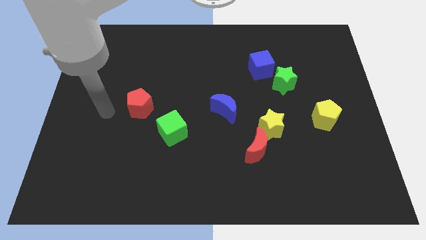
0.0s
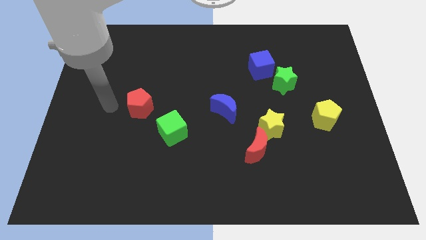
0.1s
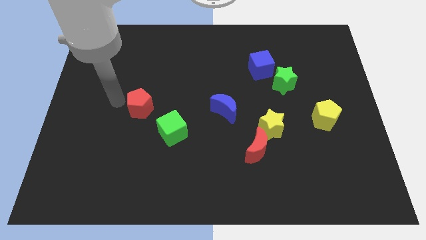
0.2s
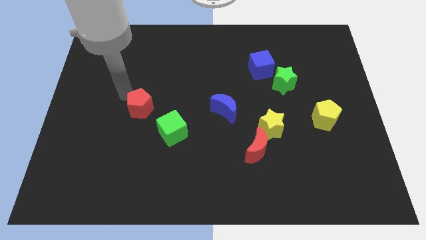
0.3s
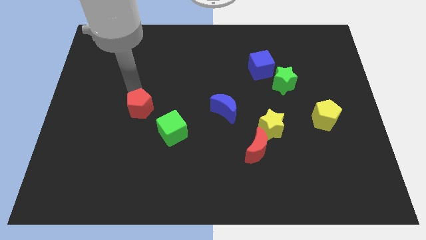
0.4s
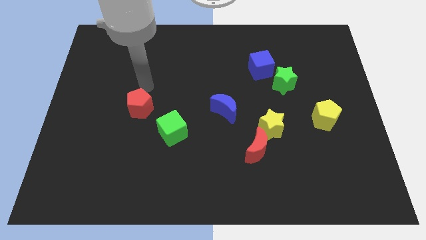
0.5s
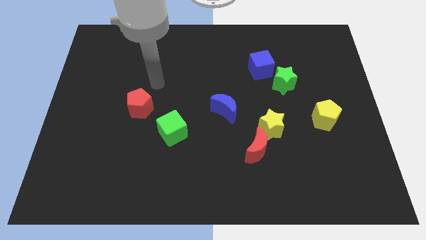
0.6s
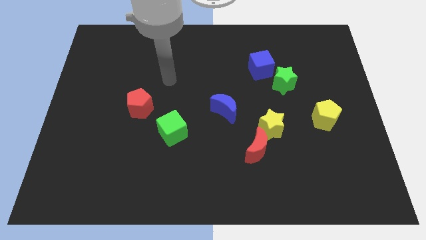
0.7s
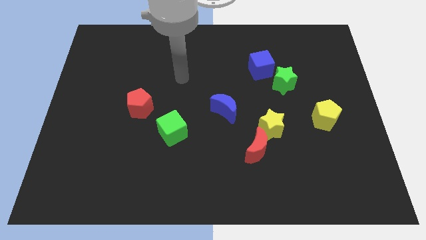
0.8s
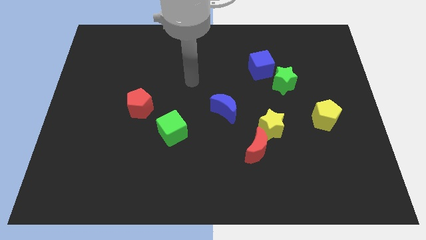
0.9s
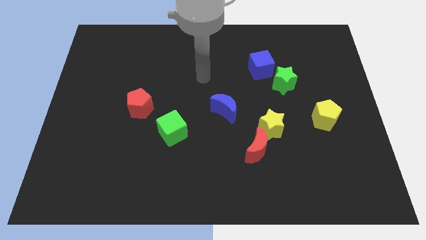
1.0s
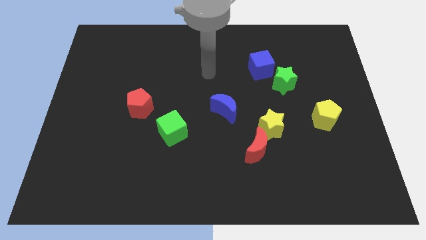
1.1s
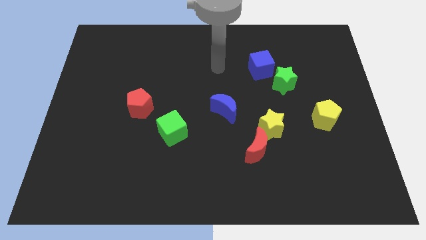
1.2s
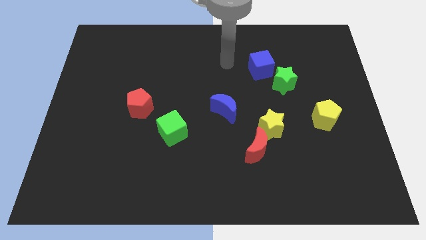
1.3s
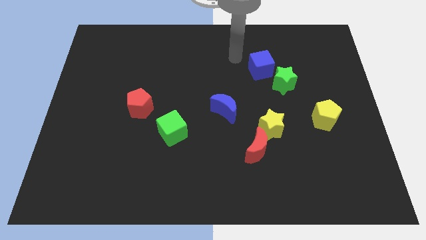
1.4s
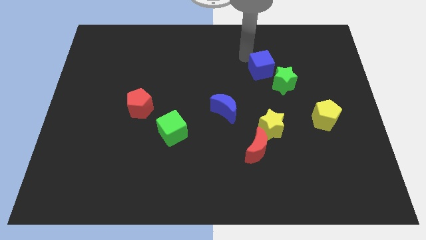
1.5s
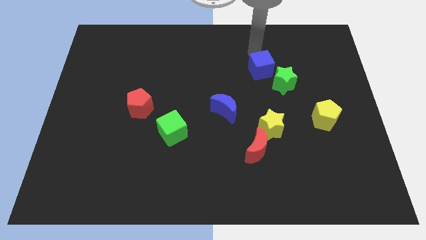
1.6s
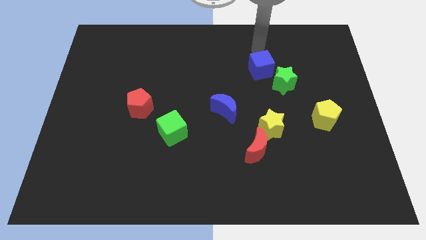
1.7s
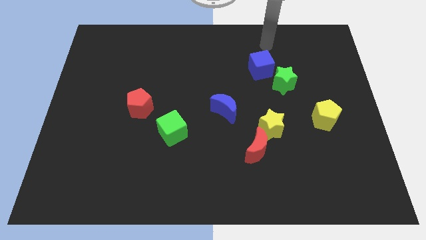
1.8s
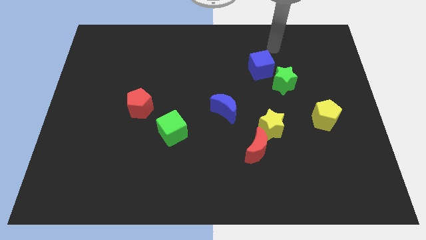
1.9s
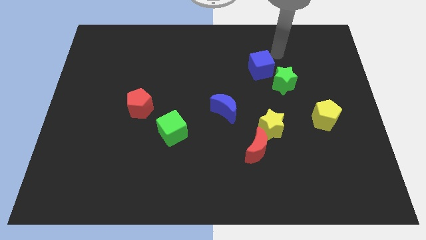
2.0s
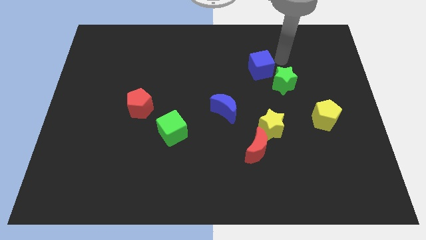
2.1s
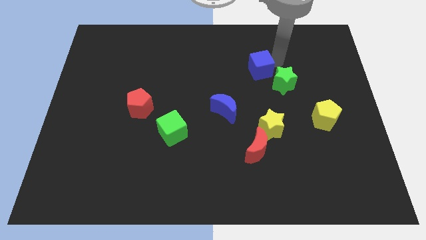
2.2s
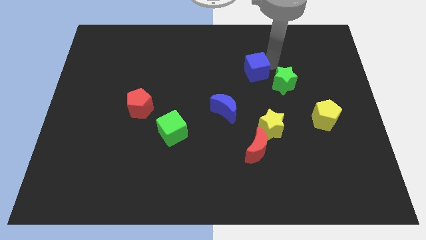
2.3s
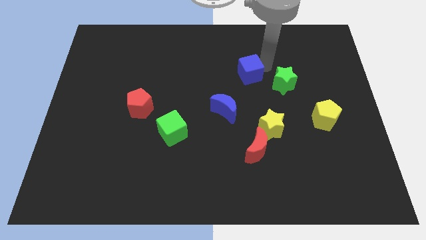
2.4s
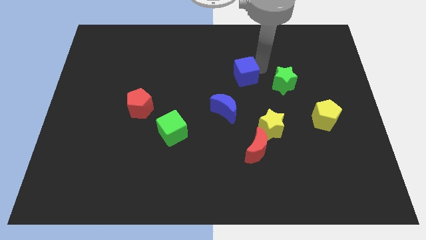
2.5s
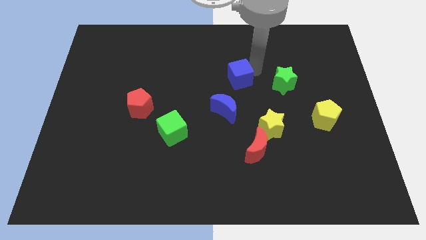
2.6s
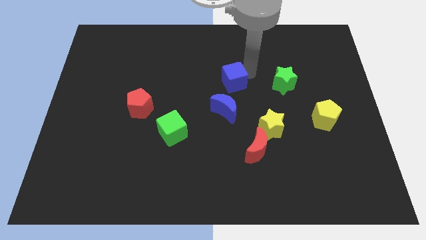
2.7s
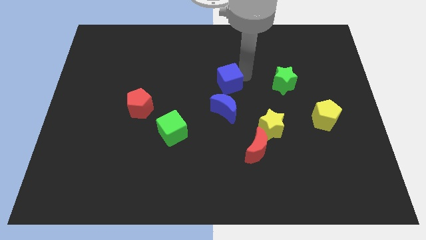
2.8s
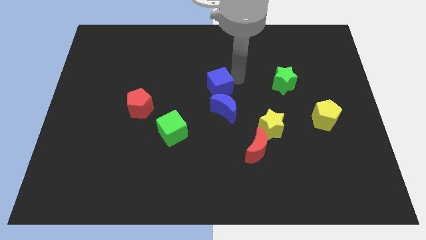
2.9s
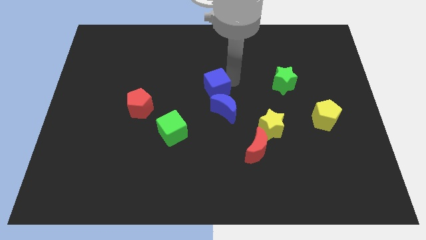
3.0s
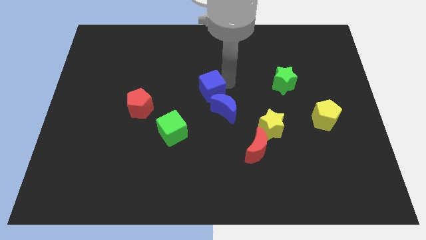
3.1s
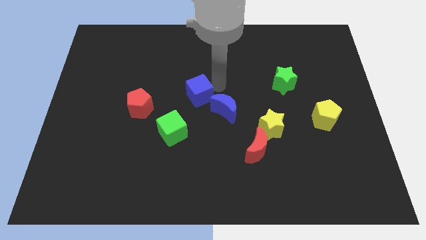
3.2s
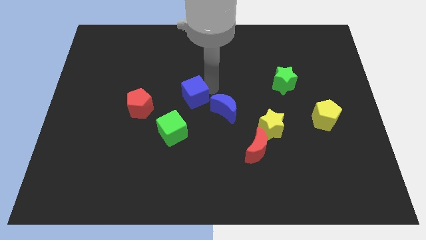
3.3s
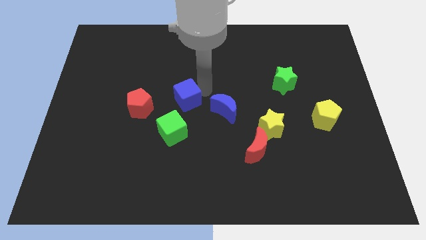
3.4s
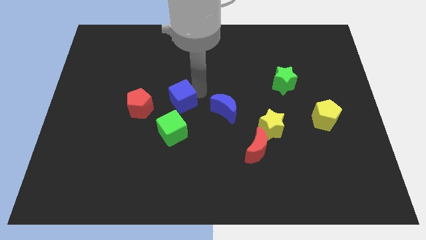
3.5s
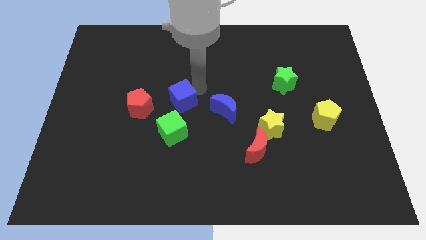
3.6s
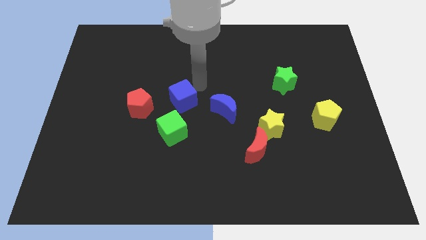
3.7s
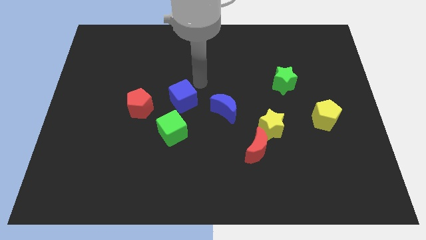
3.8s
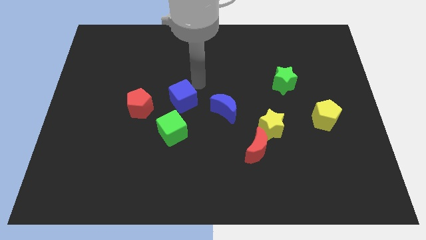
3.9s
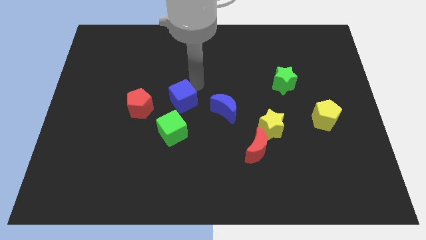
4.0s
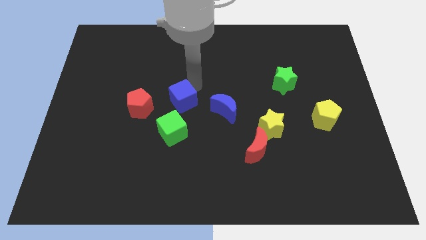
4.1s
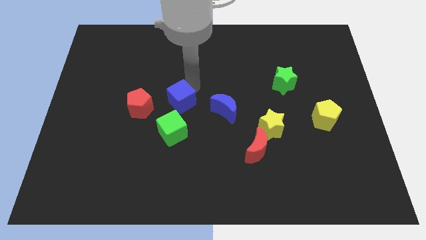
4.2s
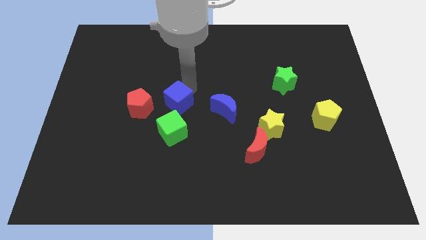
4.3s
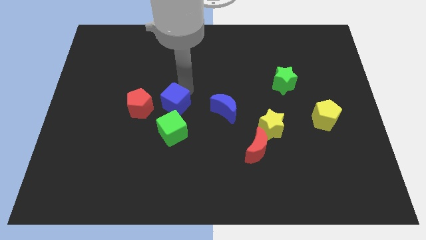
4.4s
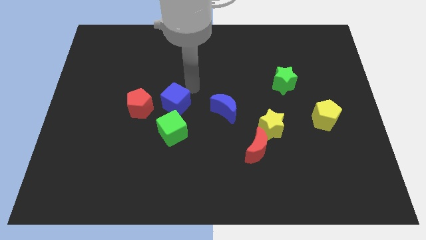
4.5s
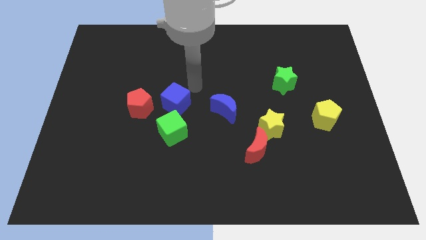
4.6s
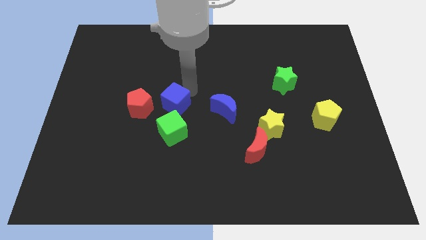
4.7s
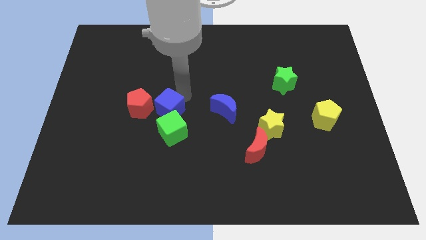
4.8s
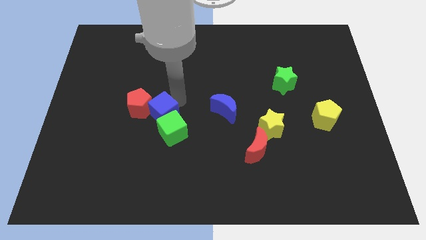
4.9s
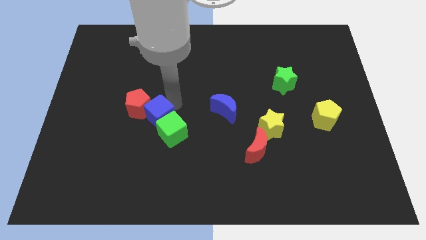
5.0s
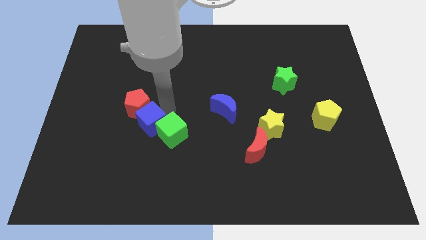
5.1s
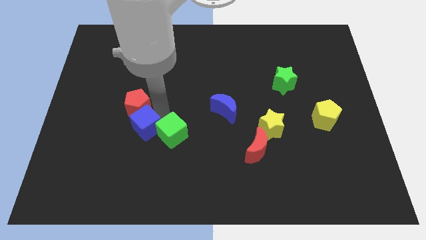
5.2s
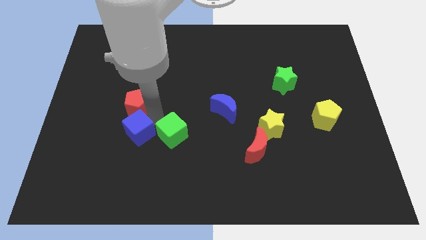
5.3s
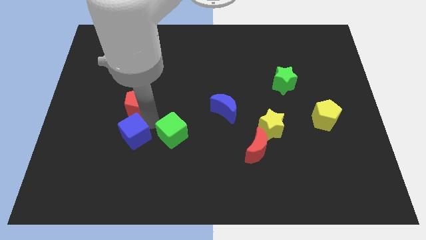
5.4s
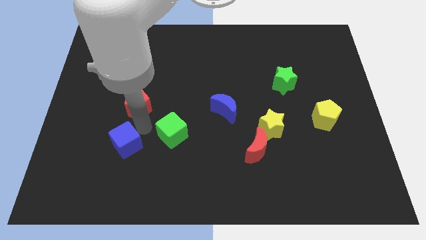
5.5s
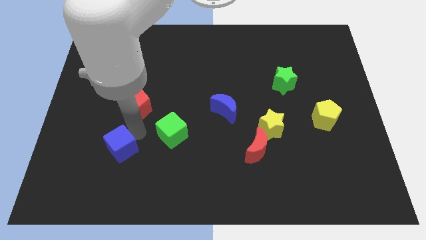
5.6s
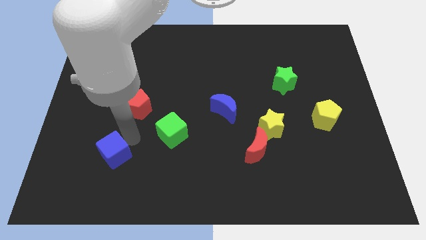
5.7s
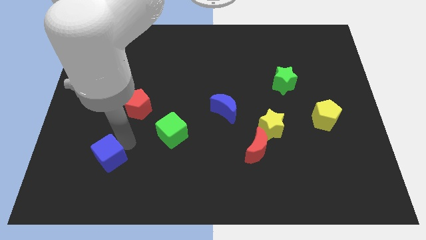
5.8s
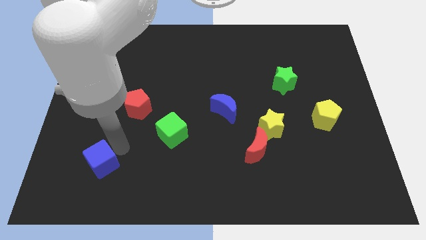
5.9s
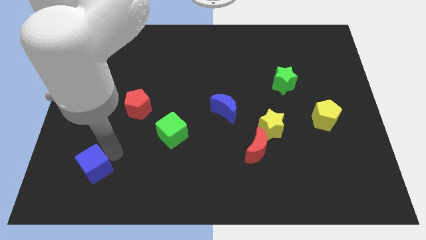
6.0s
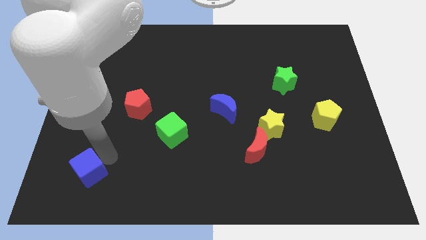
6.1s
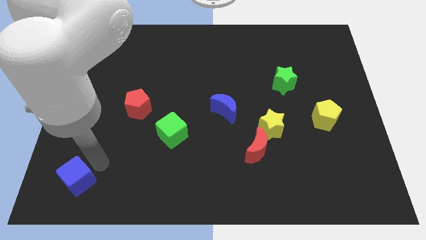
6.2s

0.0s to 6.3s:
slide the blue cube to the bottom left corner

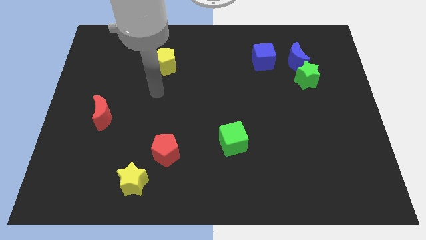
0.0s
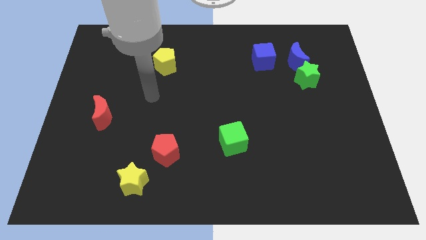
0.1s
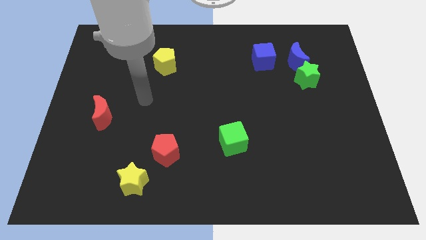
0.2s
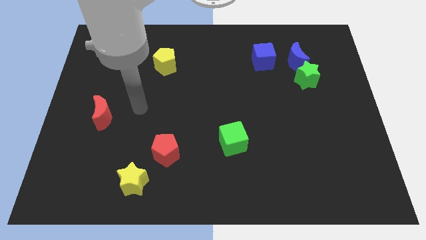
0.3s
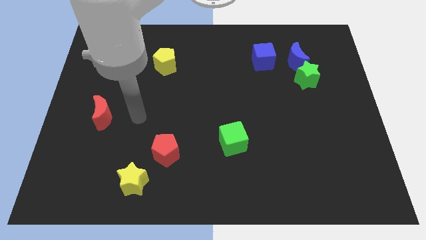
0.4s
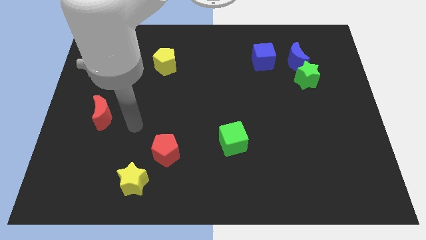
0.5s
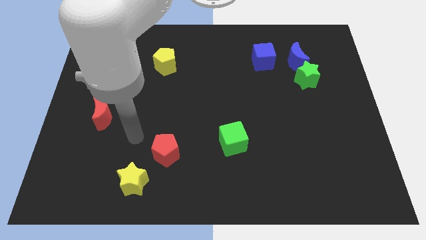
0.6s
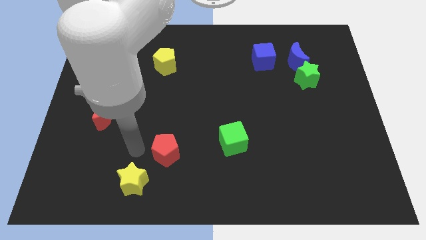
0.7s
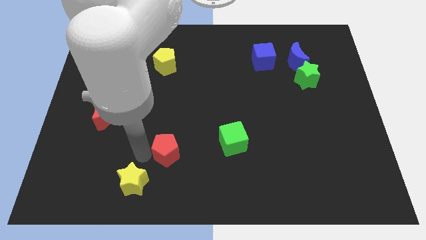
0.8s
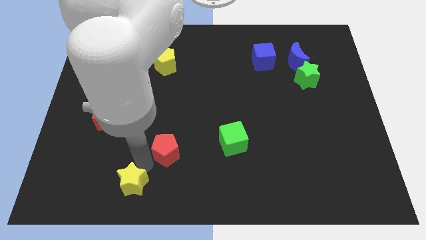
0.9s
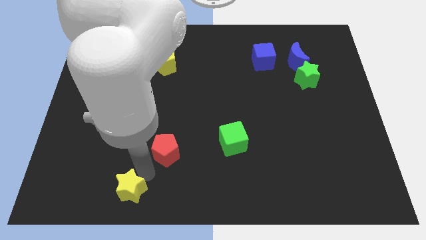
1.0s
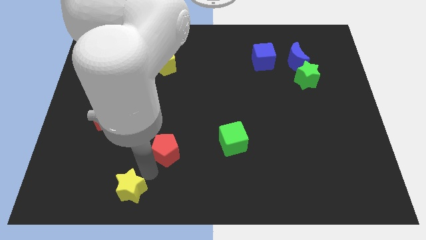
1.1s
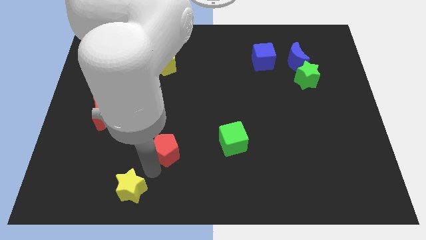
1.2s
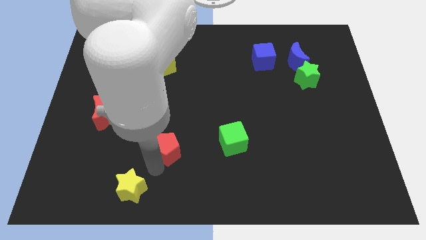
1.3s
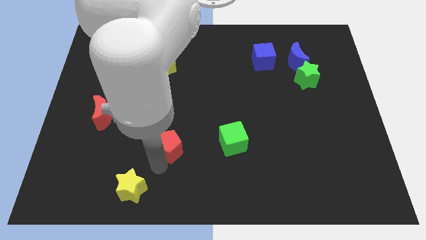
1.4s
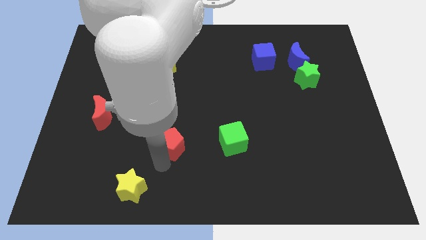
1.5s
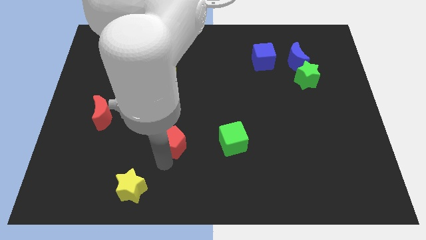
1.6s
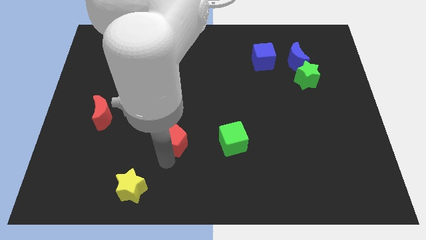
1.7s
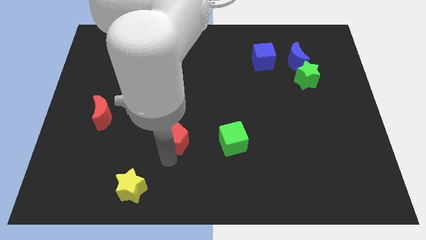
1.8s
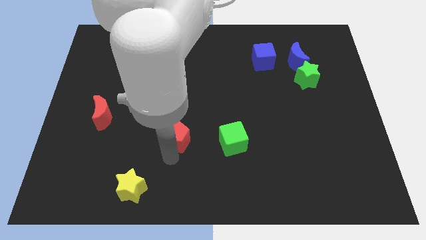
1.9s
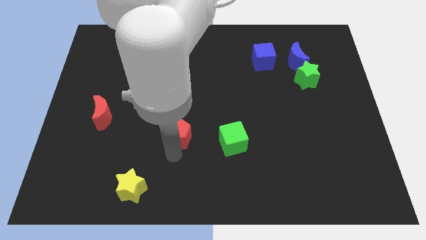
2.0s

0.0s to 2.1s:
slide the red pentagon to the center
